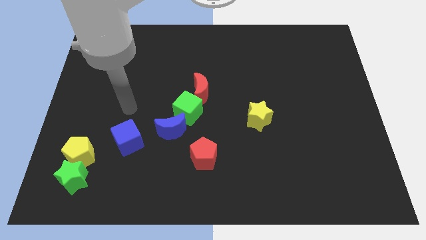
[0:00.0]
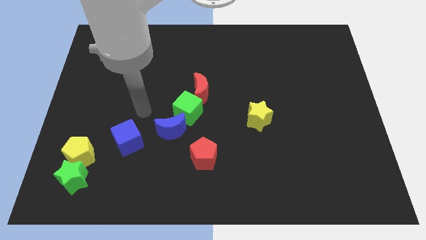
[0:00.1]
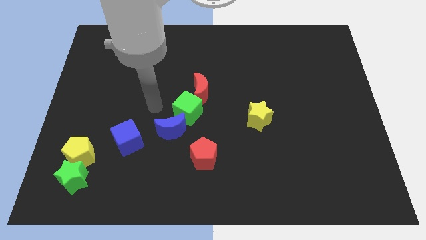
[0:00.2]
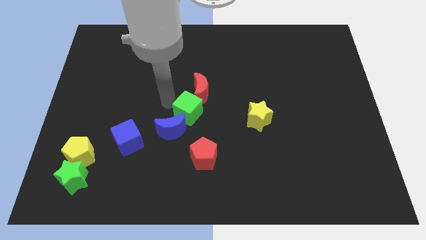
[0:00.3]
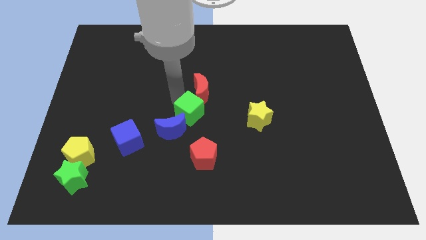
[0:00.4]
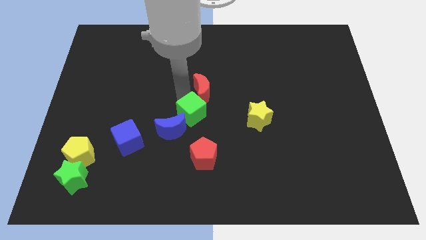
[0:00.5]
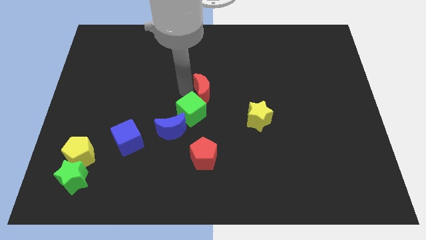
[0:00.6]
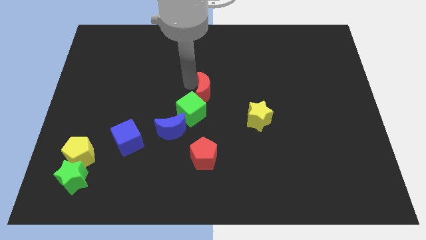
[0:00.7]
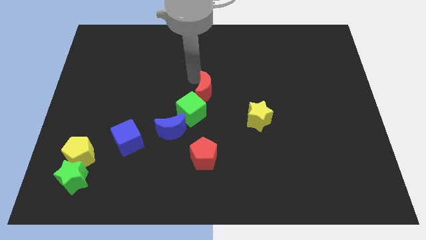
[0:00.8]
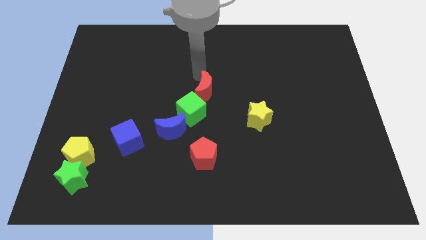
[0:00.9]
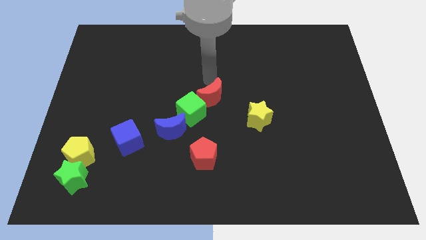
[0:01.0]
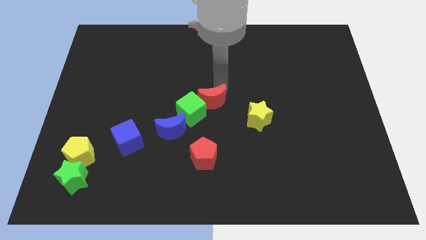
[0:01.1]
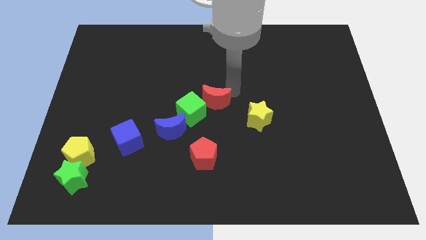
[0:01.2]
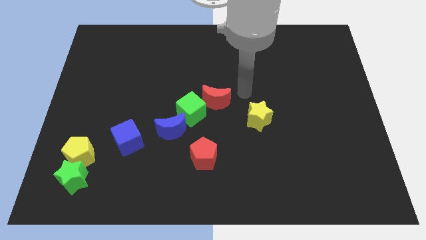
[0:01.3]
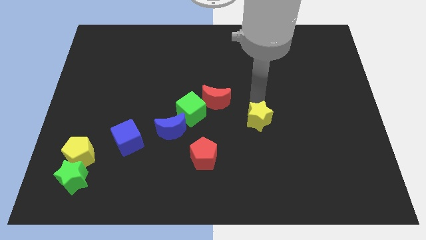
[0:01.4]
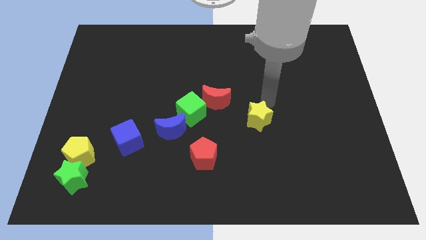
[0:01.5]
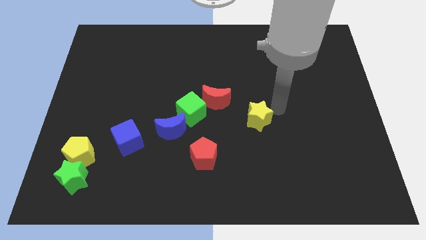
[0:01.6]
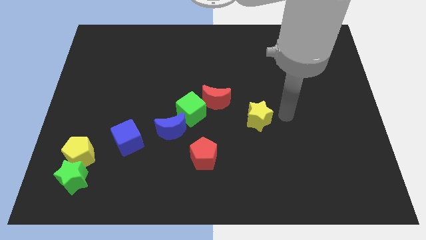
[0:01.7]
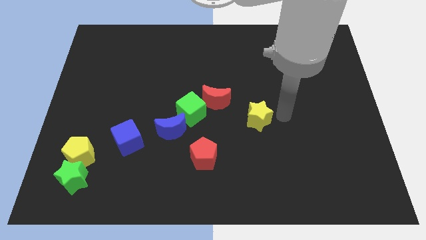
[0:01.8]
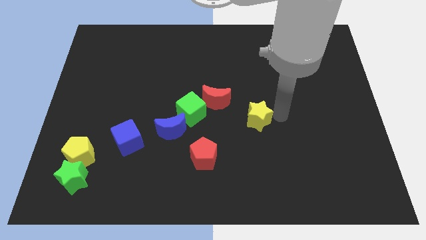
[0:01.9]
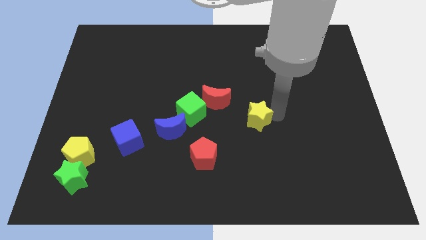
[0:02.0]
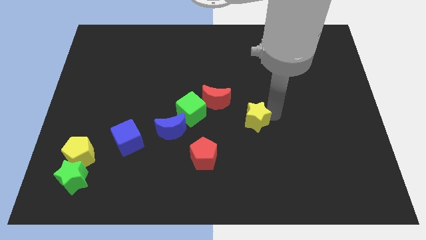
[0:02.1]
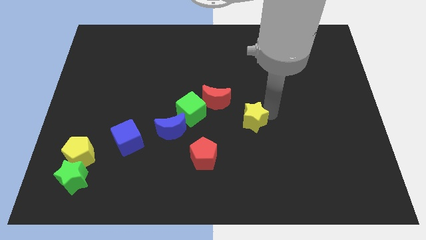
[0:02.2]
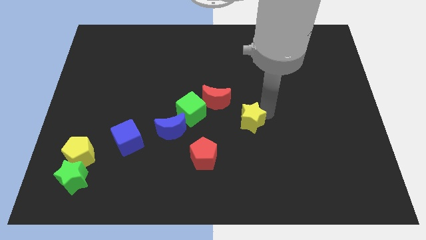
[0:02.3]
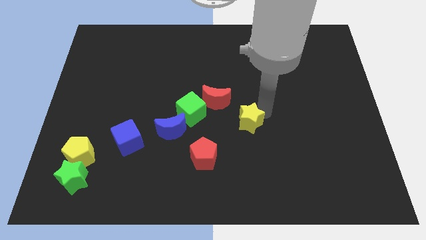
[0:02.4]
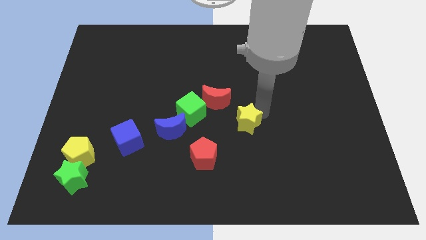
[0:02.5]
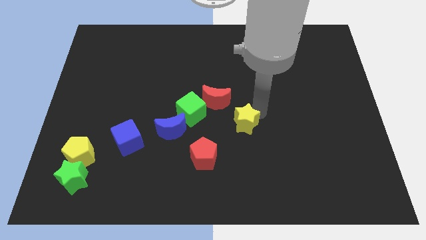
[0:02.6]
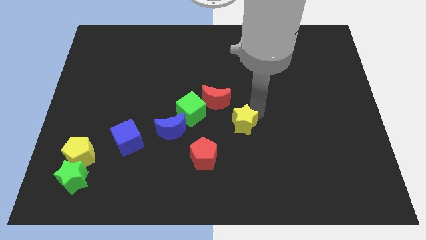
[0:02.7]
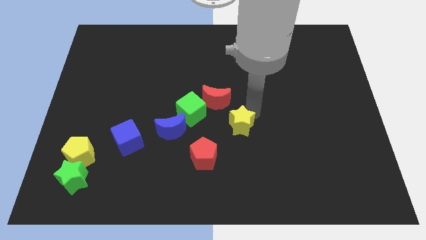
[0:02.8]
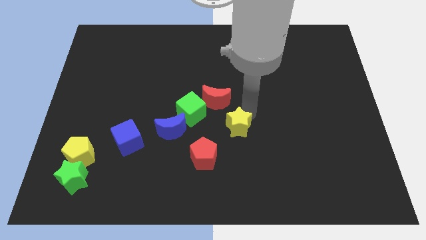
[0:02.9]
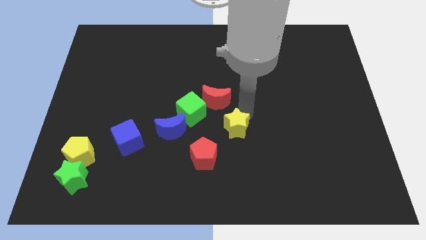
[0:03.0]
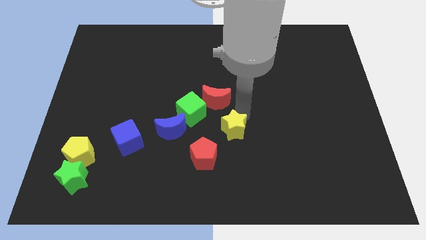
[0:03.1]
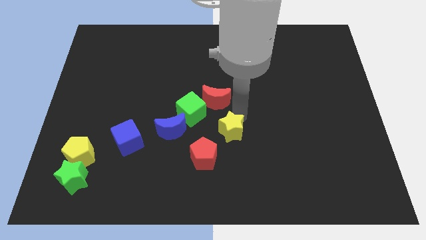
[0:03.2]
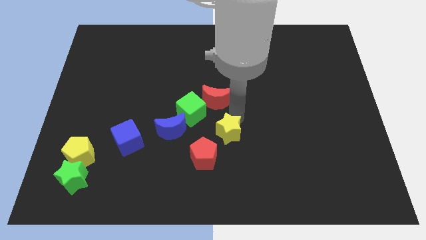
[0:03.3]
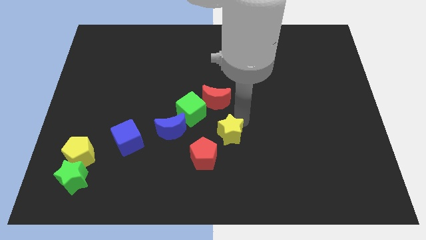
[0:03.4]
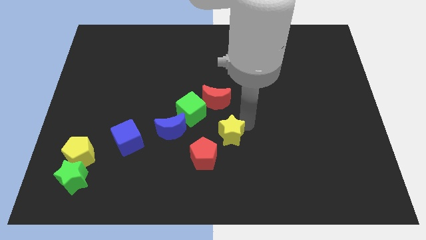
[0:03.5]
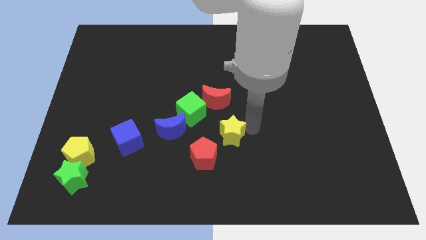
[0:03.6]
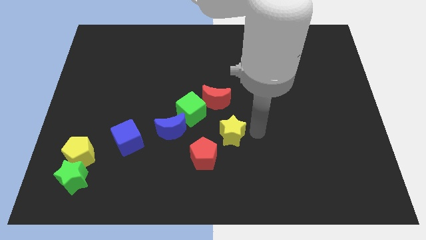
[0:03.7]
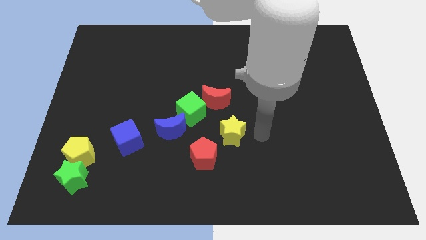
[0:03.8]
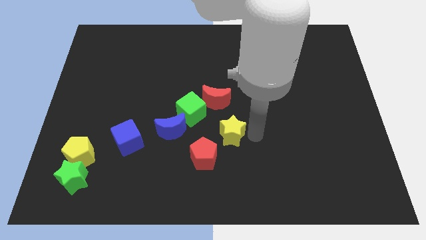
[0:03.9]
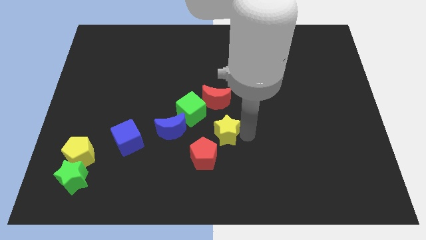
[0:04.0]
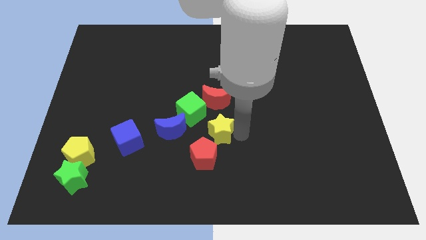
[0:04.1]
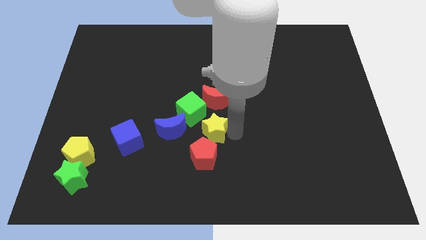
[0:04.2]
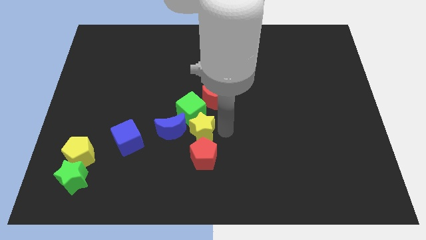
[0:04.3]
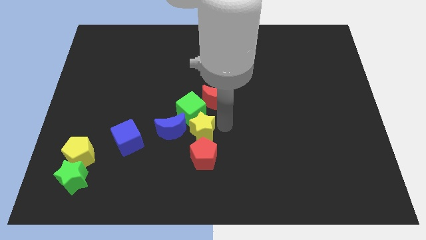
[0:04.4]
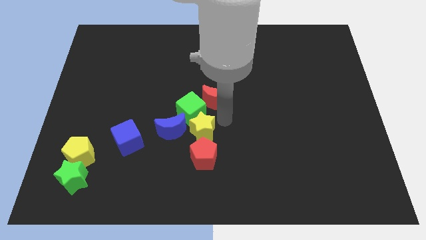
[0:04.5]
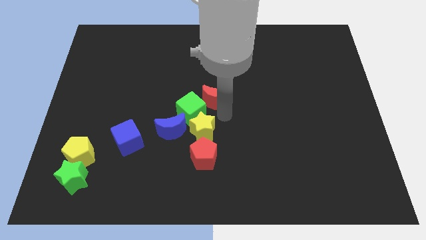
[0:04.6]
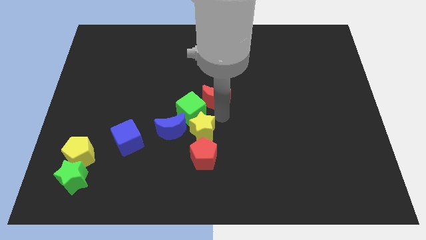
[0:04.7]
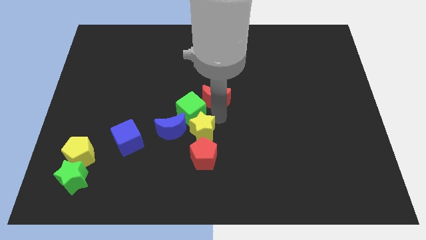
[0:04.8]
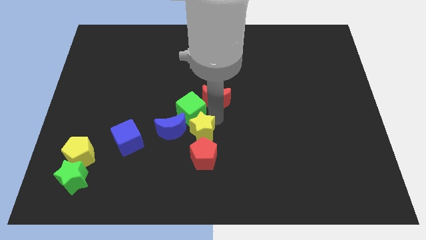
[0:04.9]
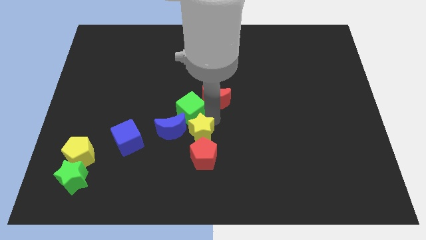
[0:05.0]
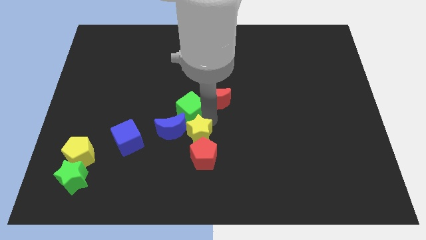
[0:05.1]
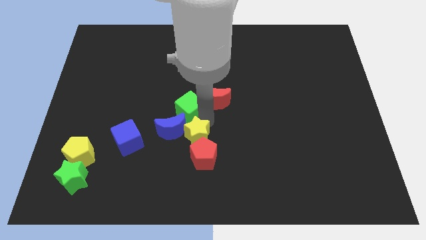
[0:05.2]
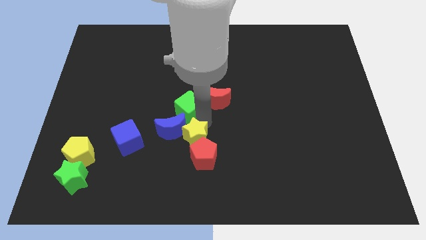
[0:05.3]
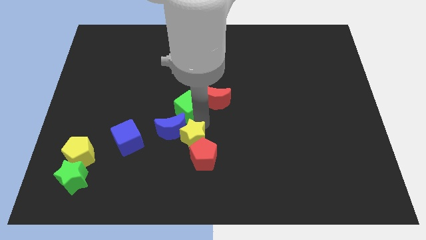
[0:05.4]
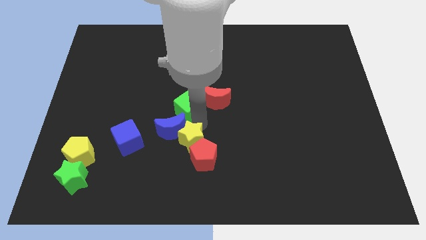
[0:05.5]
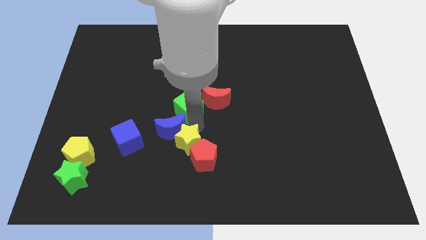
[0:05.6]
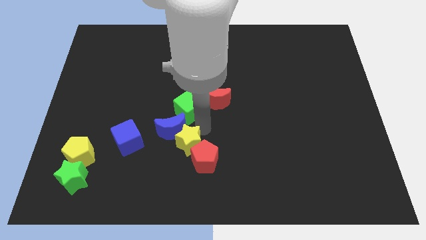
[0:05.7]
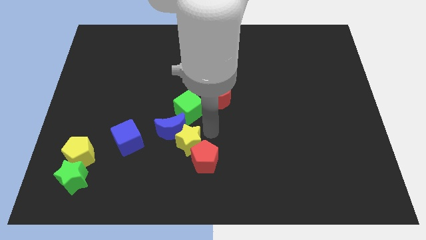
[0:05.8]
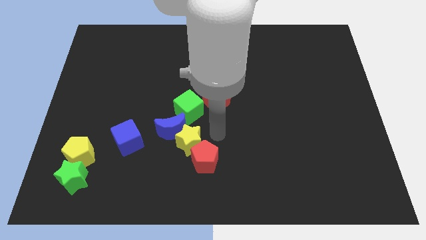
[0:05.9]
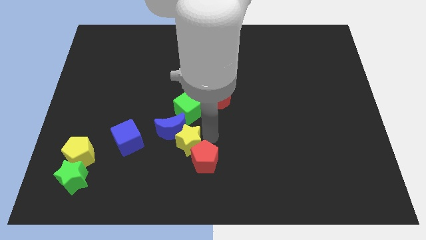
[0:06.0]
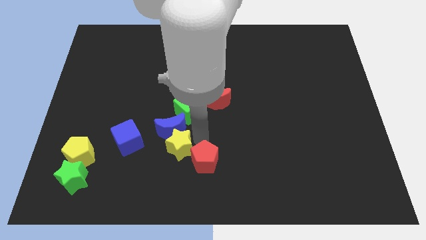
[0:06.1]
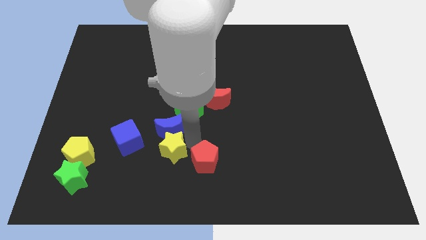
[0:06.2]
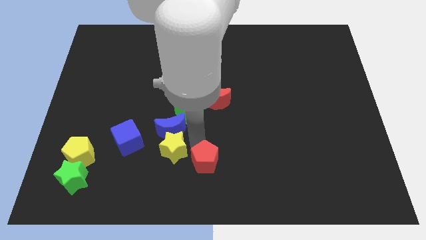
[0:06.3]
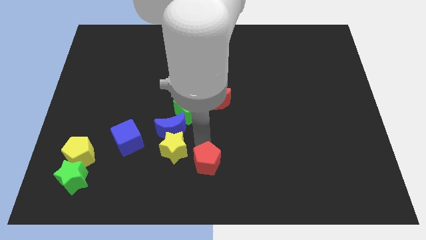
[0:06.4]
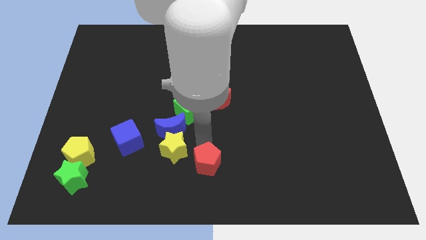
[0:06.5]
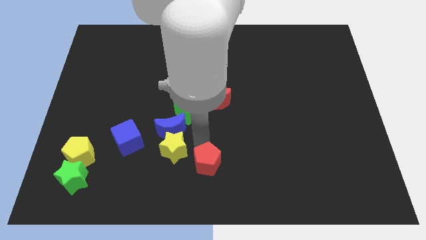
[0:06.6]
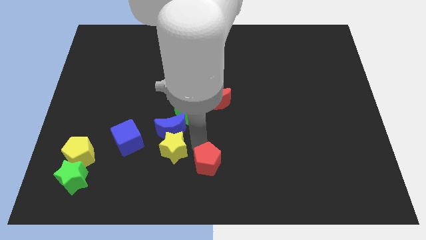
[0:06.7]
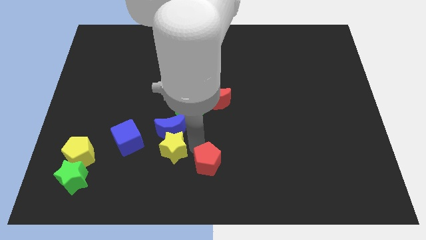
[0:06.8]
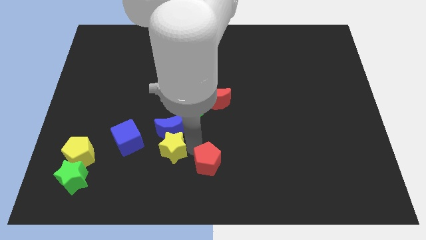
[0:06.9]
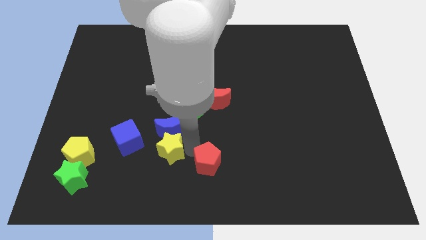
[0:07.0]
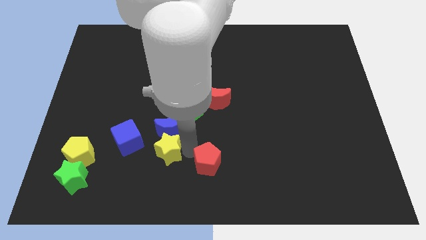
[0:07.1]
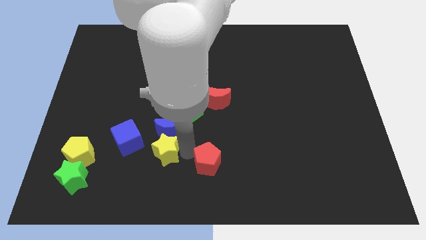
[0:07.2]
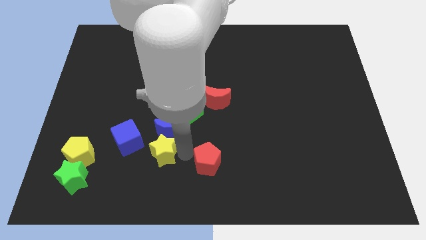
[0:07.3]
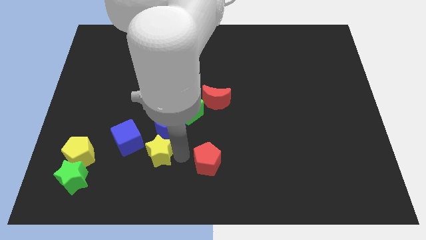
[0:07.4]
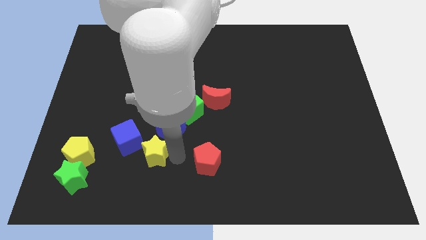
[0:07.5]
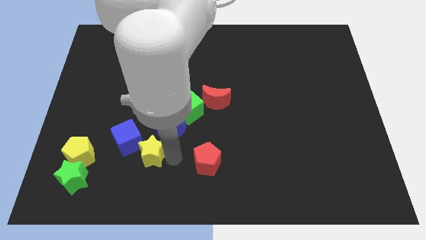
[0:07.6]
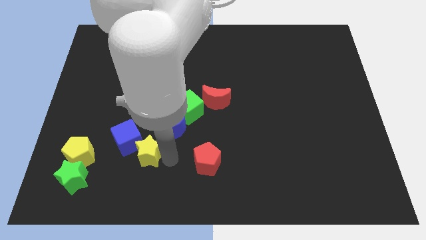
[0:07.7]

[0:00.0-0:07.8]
move the yellow star to the blue cube
